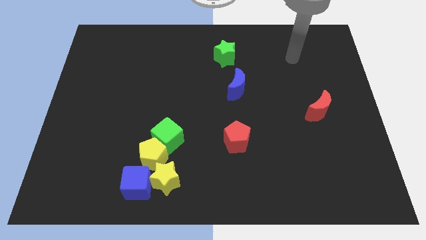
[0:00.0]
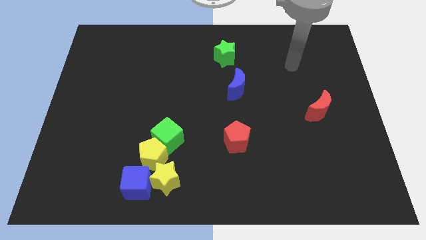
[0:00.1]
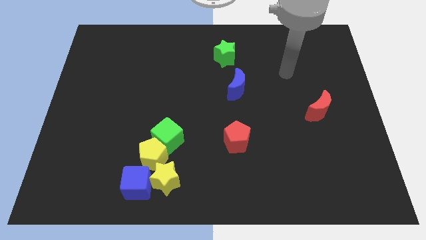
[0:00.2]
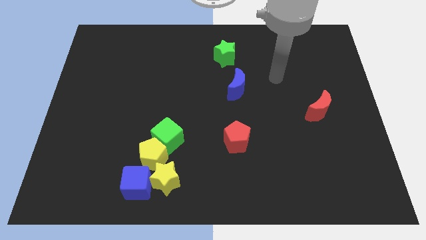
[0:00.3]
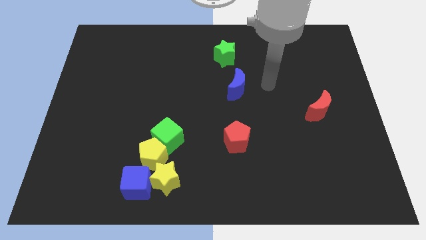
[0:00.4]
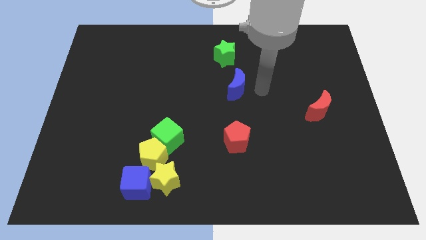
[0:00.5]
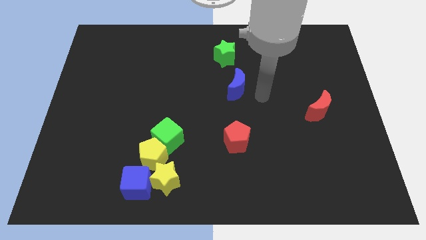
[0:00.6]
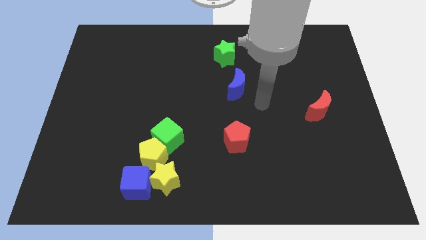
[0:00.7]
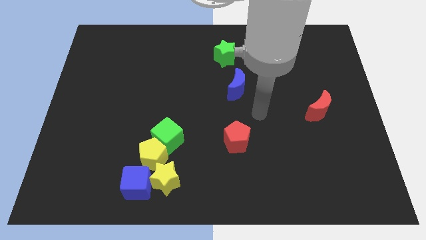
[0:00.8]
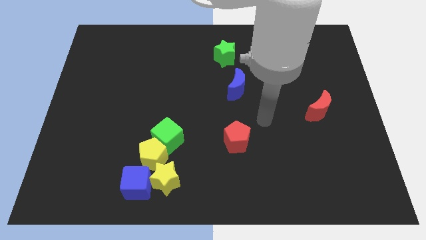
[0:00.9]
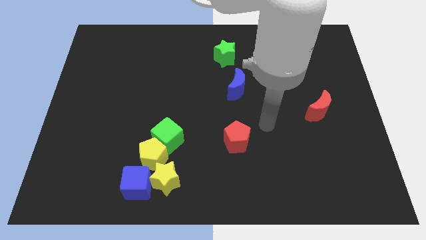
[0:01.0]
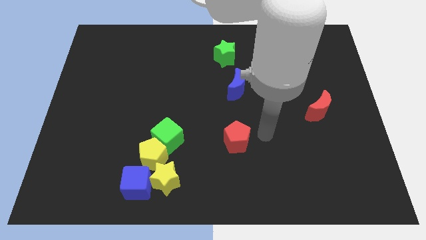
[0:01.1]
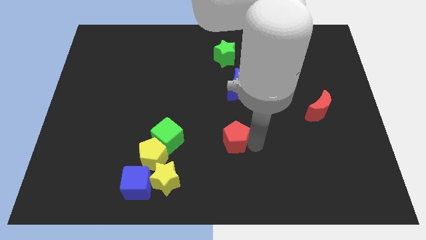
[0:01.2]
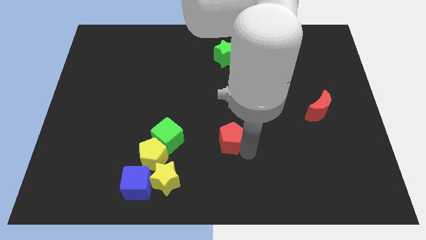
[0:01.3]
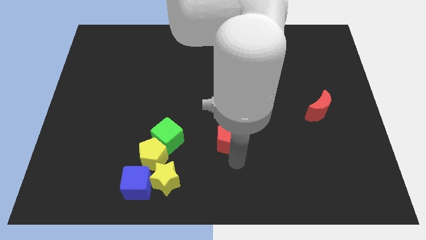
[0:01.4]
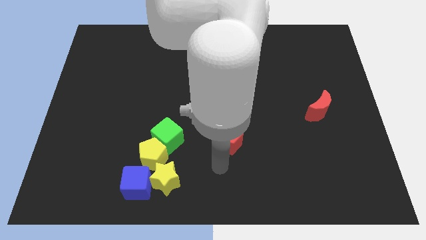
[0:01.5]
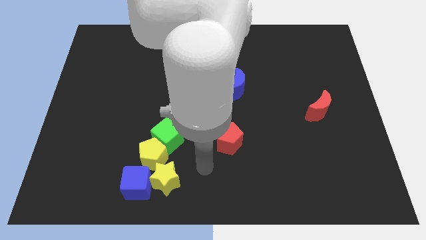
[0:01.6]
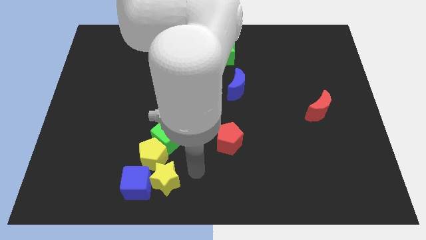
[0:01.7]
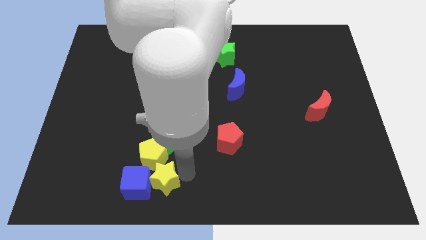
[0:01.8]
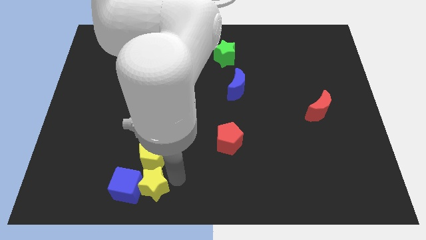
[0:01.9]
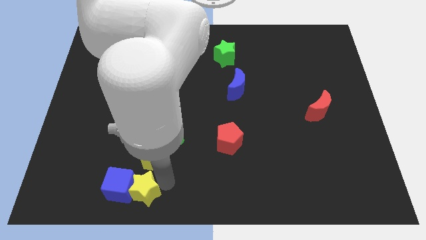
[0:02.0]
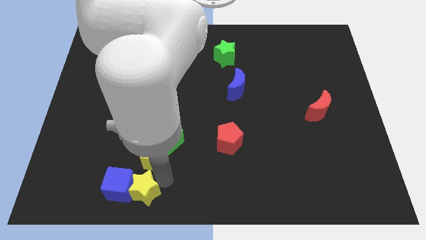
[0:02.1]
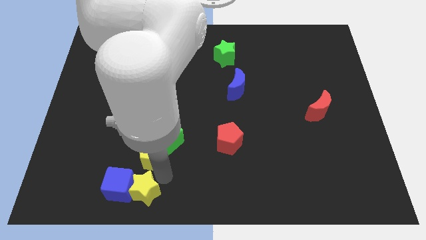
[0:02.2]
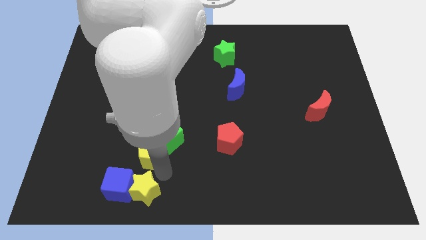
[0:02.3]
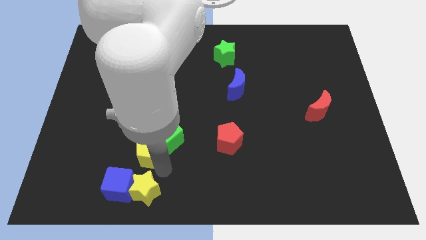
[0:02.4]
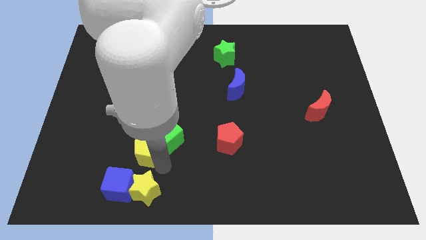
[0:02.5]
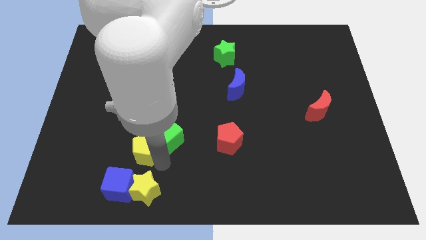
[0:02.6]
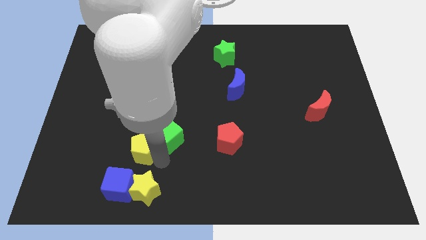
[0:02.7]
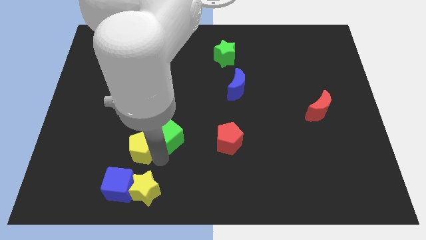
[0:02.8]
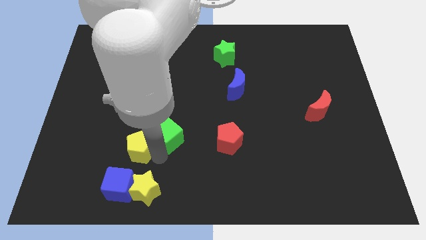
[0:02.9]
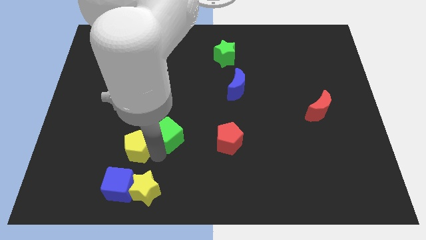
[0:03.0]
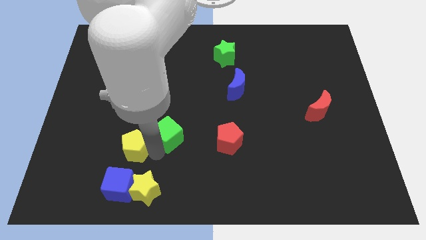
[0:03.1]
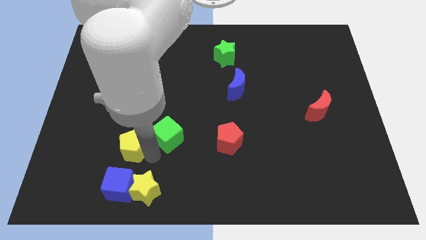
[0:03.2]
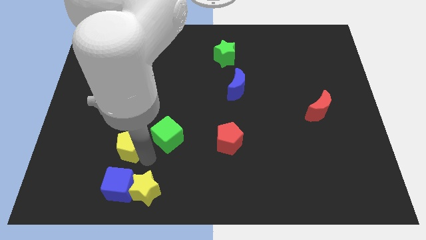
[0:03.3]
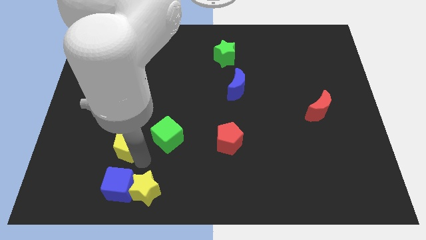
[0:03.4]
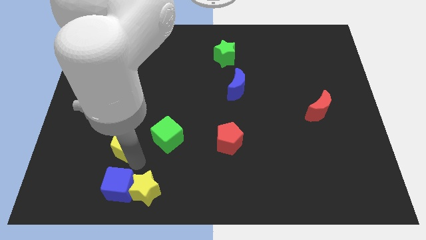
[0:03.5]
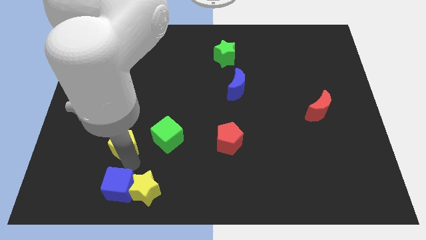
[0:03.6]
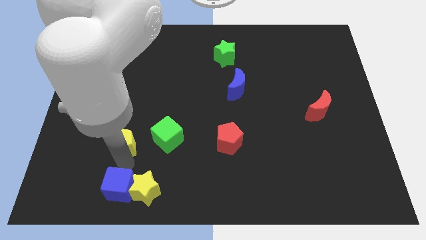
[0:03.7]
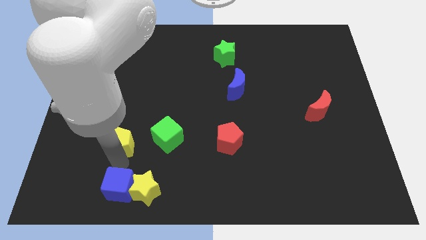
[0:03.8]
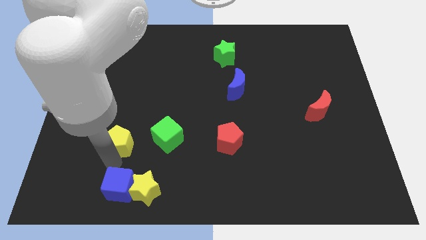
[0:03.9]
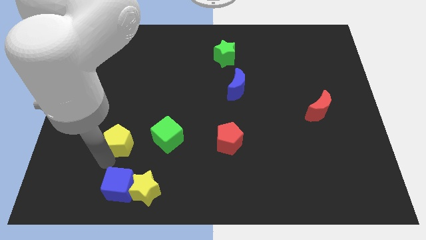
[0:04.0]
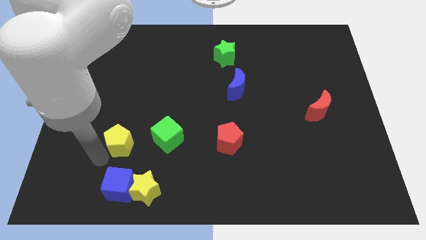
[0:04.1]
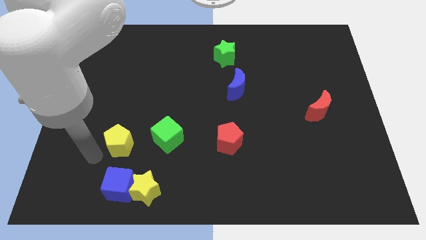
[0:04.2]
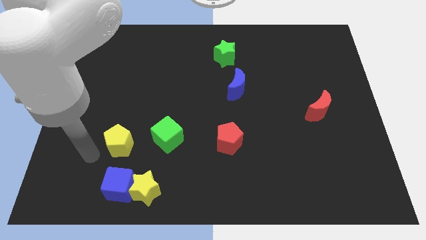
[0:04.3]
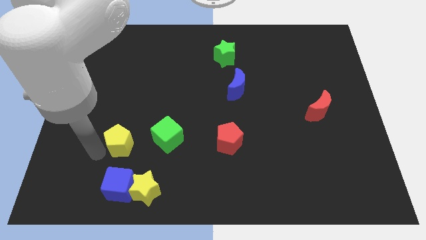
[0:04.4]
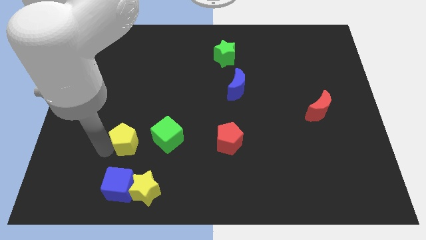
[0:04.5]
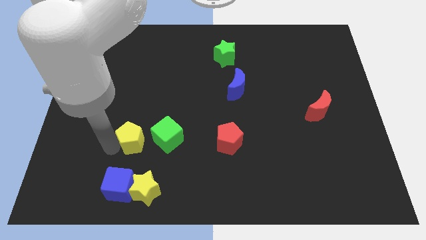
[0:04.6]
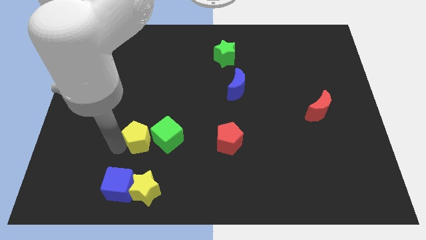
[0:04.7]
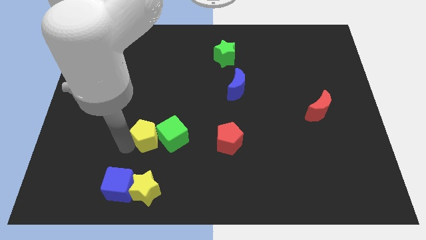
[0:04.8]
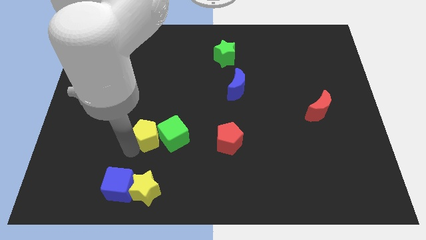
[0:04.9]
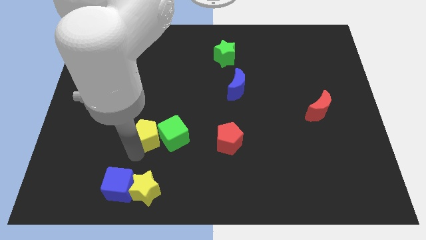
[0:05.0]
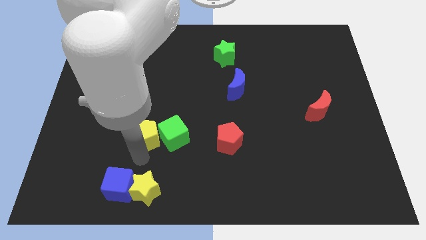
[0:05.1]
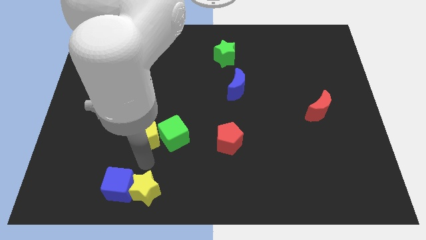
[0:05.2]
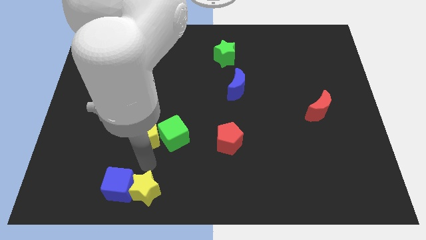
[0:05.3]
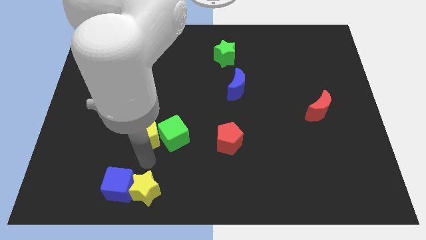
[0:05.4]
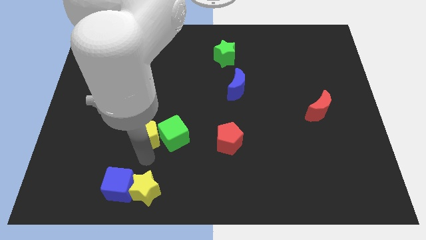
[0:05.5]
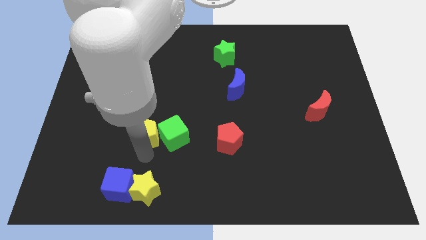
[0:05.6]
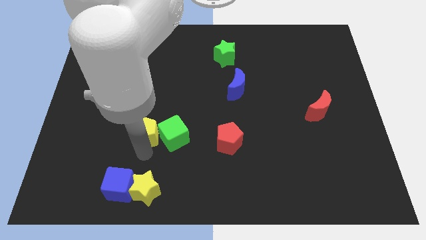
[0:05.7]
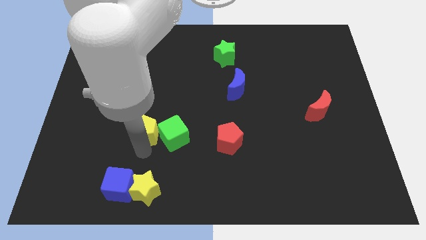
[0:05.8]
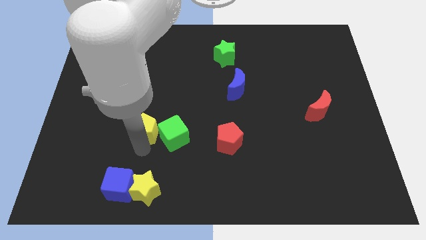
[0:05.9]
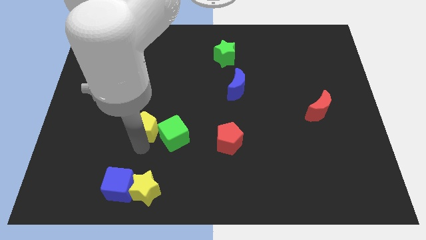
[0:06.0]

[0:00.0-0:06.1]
pull the yellow pentagon apart from the group

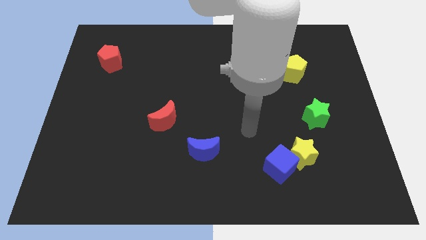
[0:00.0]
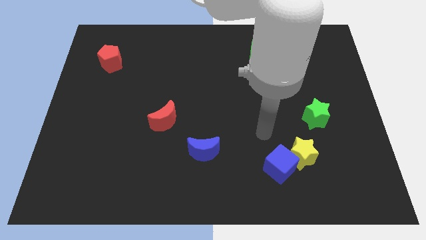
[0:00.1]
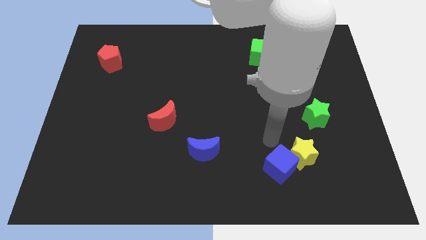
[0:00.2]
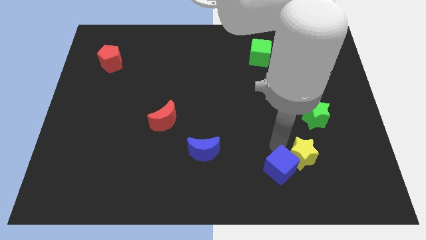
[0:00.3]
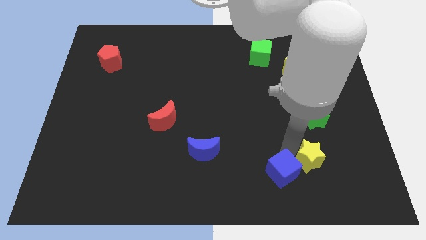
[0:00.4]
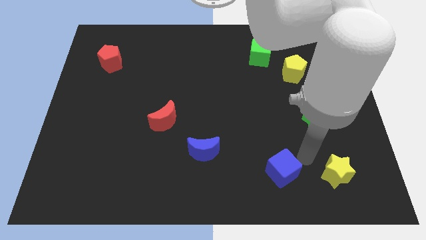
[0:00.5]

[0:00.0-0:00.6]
pull the blue cube apart from the yellow star

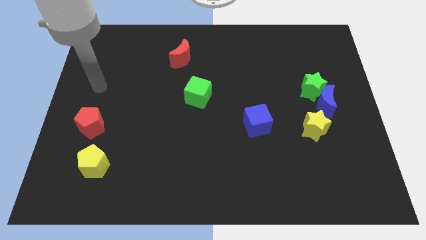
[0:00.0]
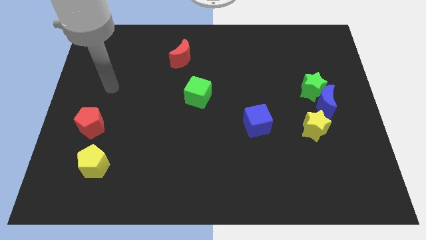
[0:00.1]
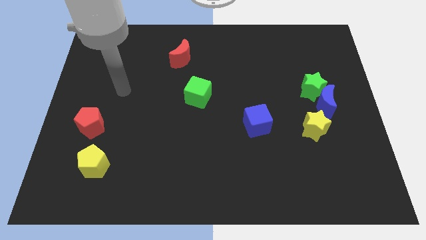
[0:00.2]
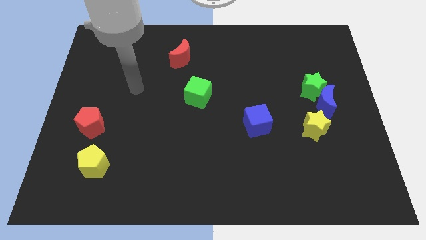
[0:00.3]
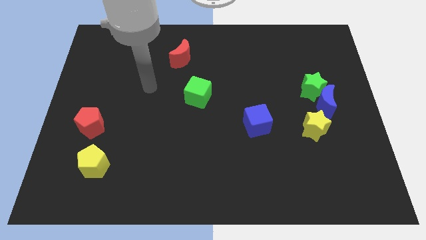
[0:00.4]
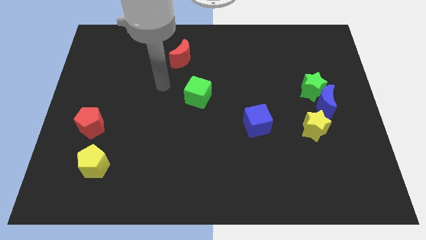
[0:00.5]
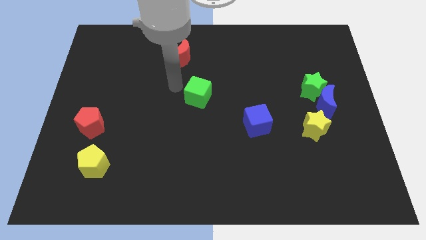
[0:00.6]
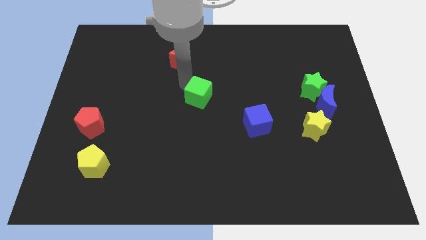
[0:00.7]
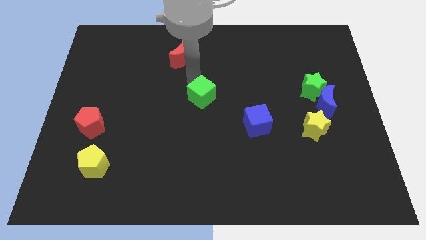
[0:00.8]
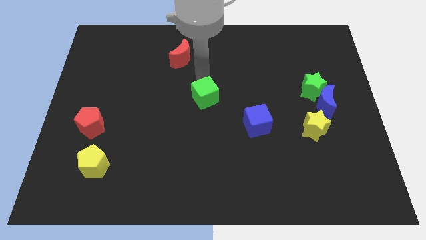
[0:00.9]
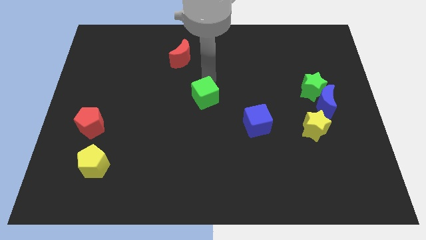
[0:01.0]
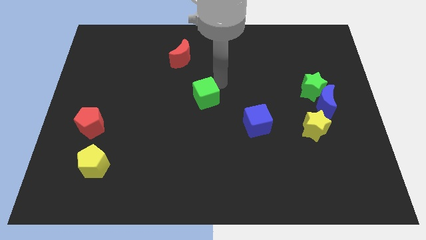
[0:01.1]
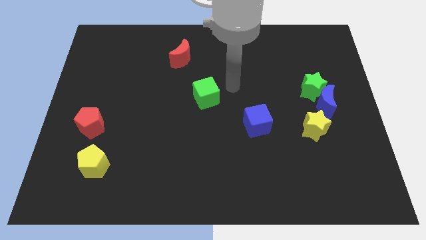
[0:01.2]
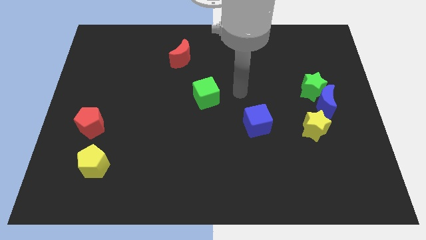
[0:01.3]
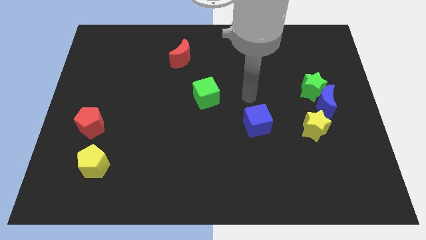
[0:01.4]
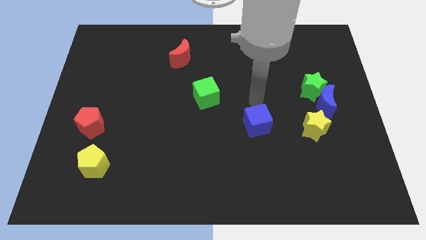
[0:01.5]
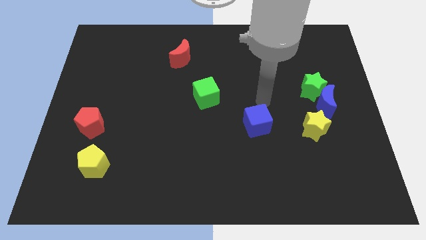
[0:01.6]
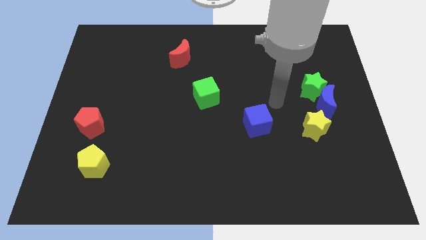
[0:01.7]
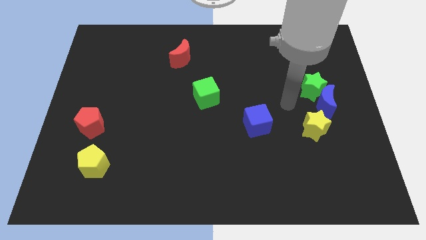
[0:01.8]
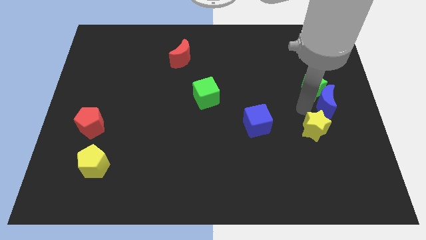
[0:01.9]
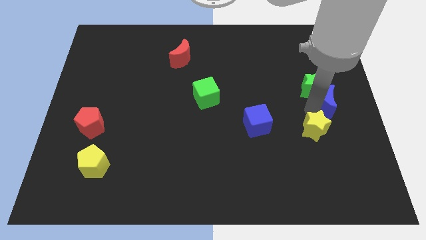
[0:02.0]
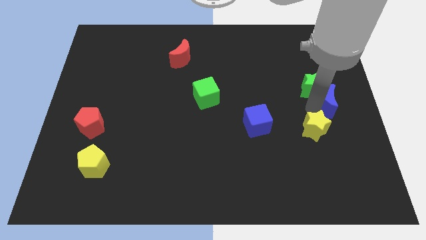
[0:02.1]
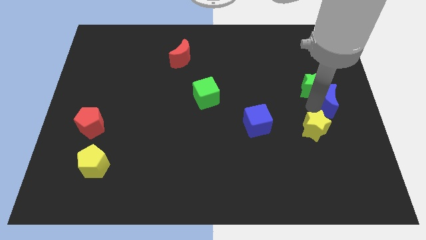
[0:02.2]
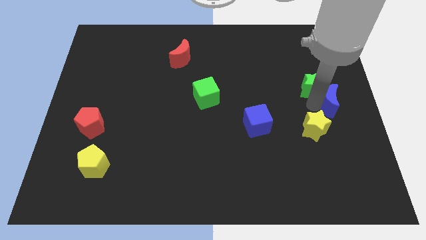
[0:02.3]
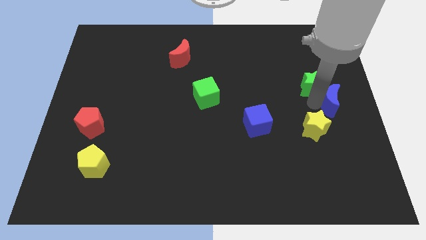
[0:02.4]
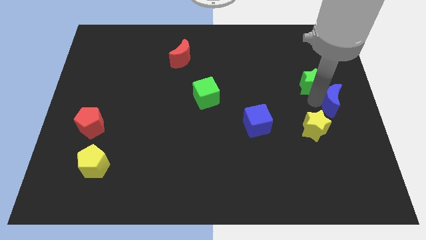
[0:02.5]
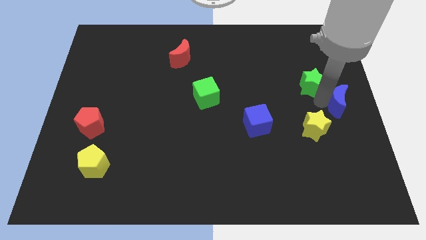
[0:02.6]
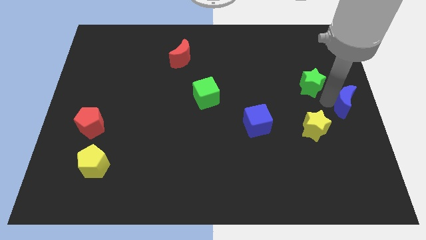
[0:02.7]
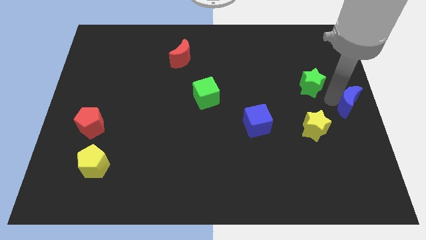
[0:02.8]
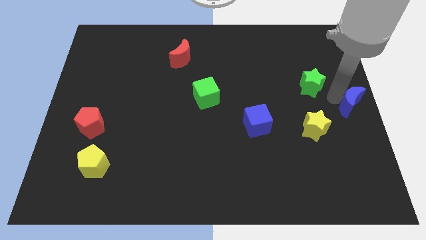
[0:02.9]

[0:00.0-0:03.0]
separate the green star from the blue moon
